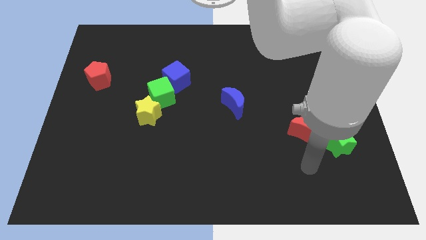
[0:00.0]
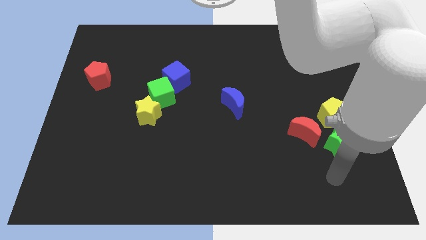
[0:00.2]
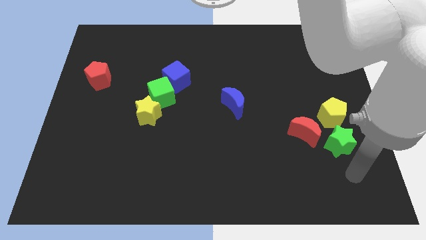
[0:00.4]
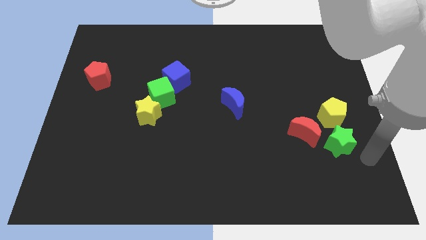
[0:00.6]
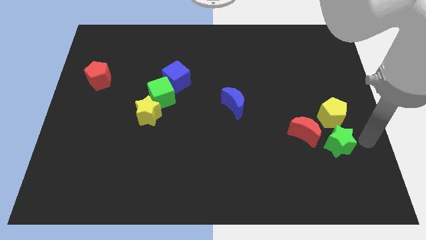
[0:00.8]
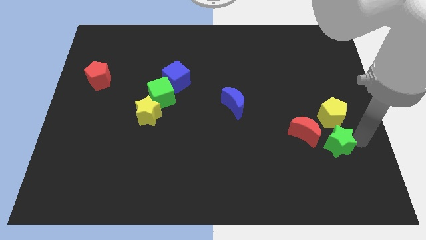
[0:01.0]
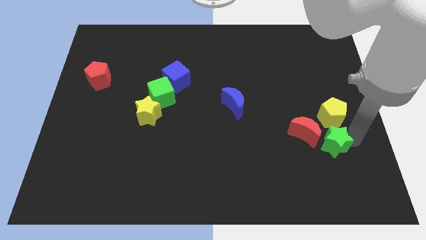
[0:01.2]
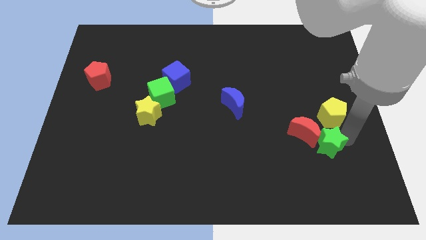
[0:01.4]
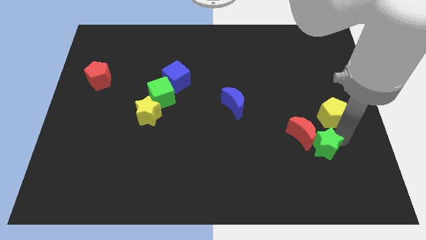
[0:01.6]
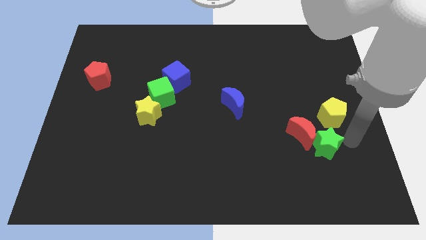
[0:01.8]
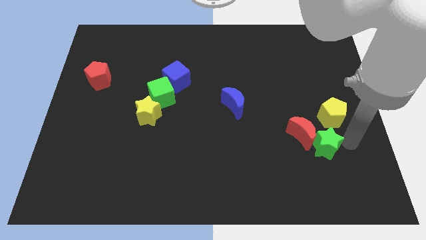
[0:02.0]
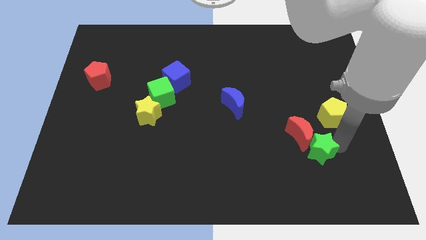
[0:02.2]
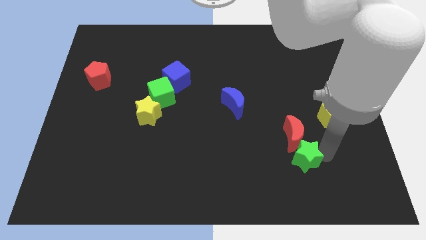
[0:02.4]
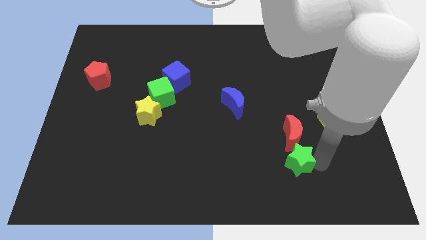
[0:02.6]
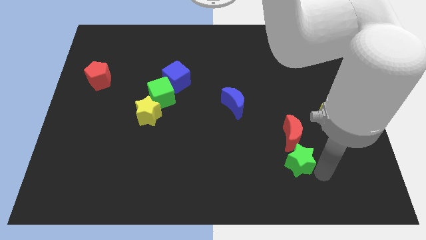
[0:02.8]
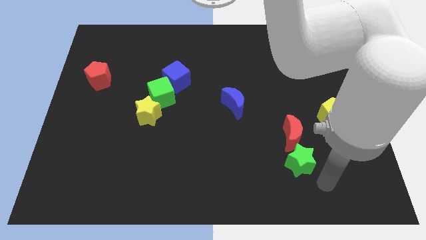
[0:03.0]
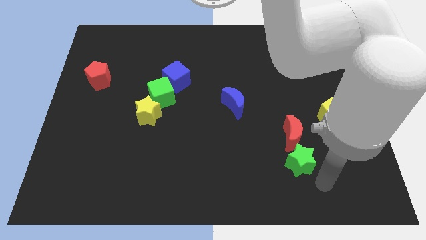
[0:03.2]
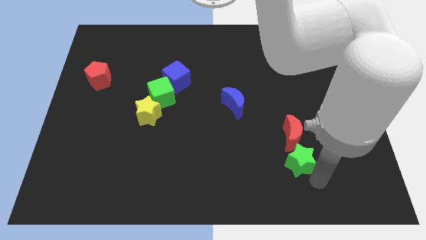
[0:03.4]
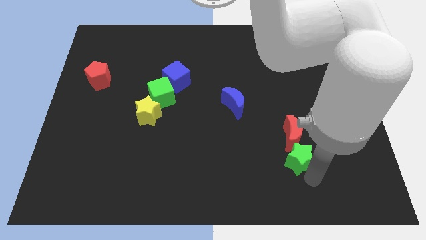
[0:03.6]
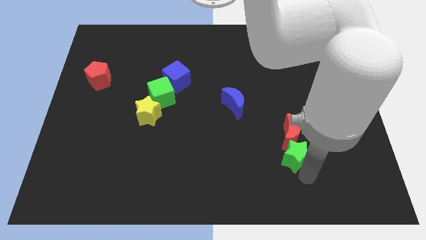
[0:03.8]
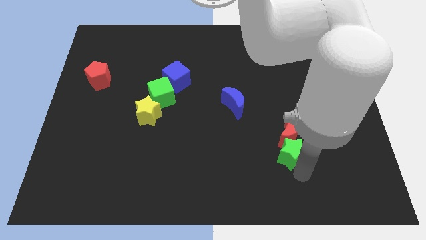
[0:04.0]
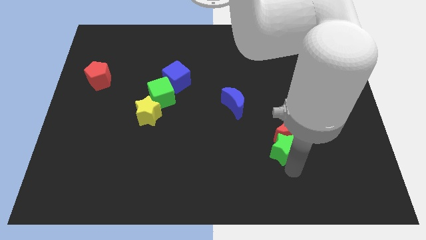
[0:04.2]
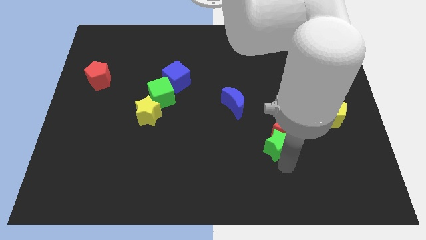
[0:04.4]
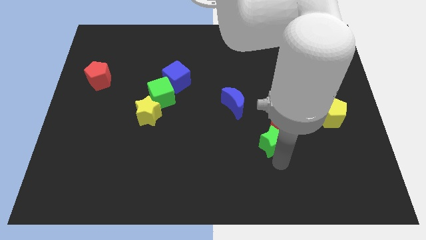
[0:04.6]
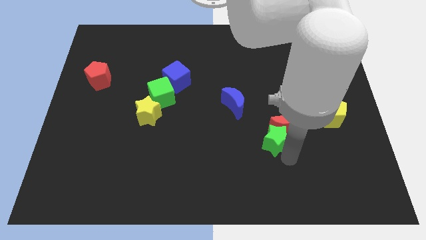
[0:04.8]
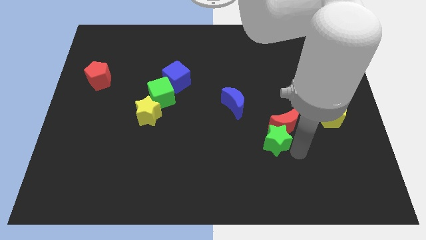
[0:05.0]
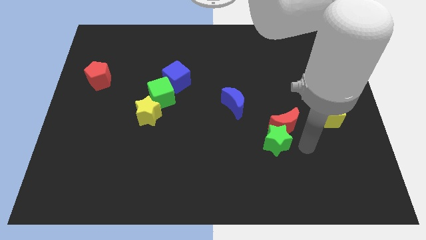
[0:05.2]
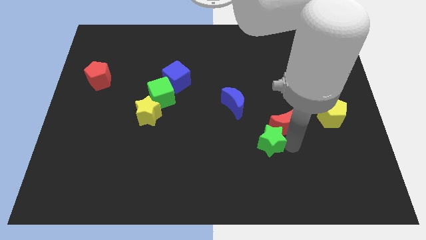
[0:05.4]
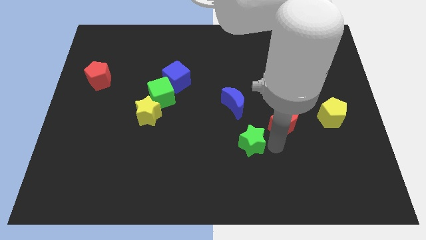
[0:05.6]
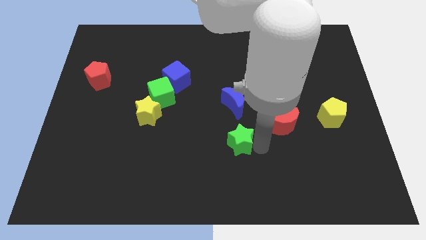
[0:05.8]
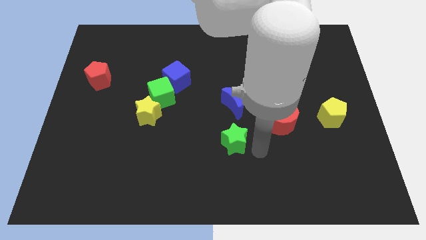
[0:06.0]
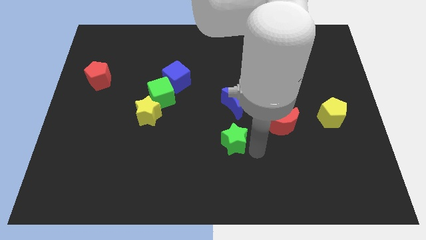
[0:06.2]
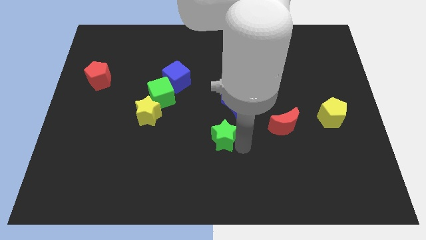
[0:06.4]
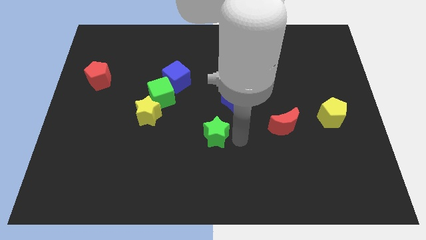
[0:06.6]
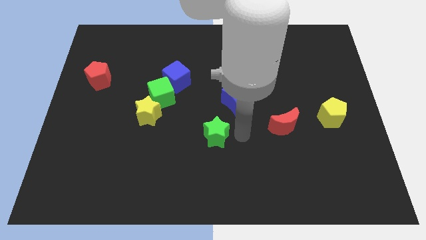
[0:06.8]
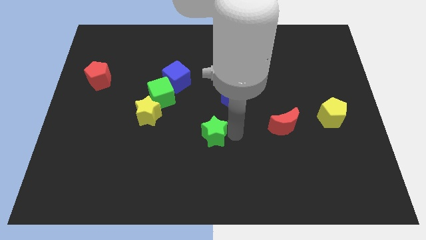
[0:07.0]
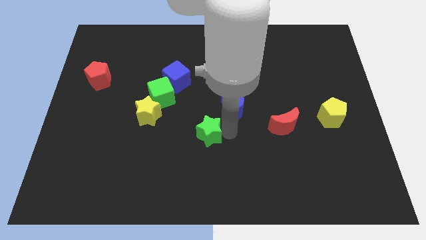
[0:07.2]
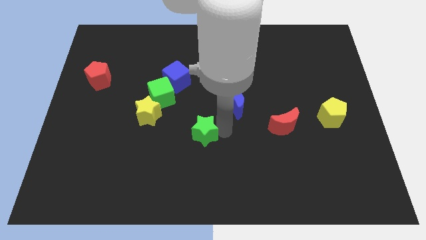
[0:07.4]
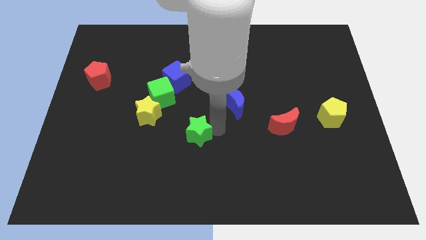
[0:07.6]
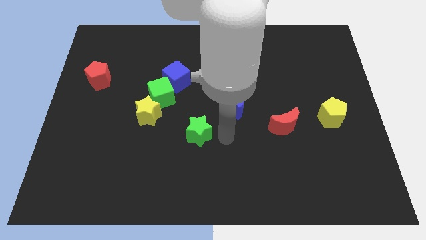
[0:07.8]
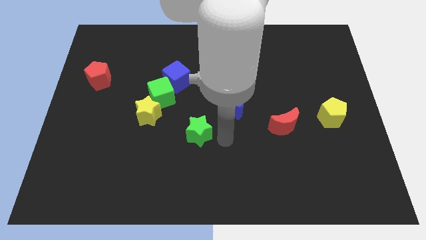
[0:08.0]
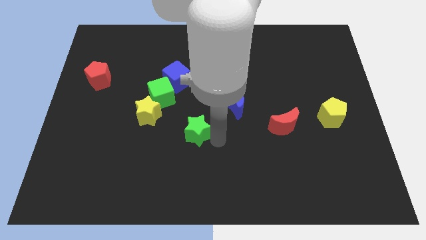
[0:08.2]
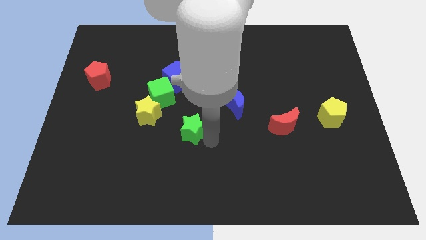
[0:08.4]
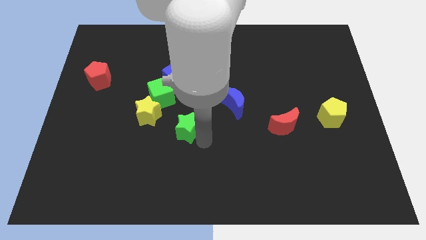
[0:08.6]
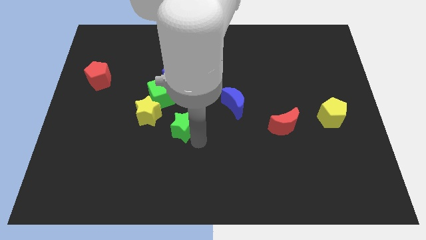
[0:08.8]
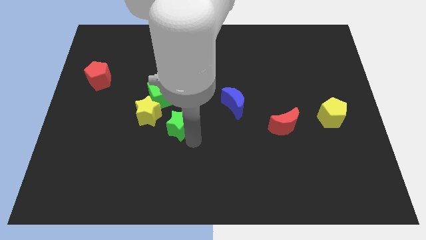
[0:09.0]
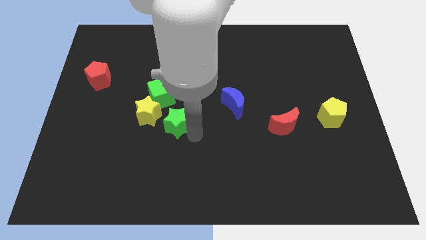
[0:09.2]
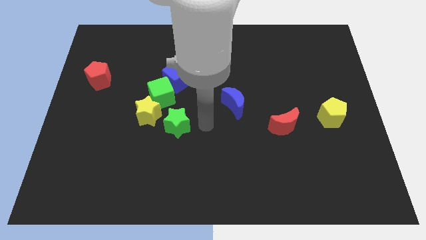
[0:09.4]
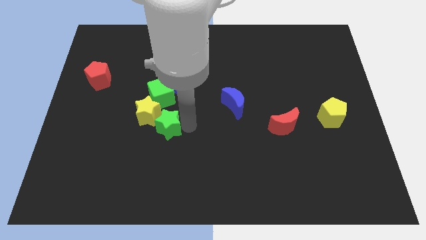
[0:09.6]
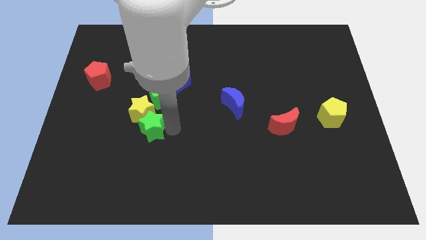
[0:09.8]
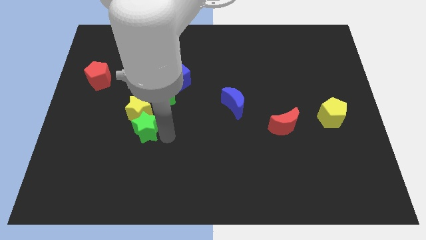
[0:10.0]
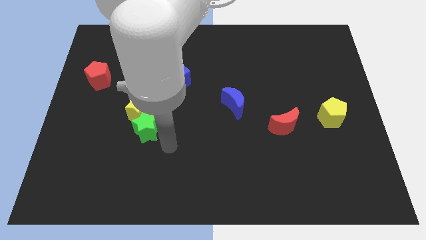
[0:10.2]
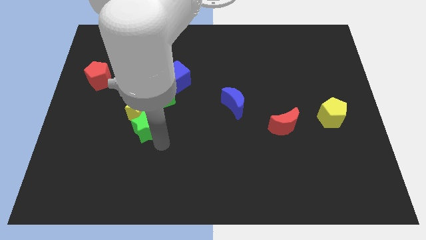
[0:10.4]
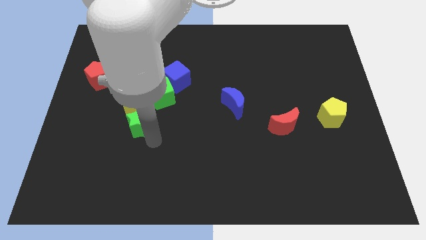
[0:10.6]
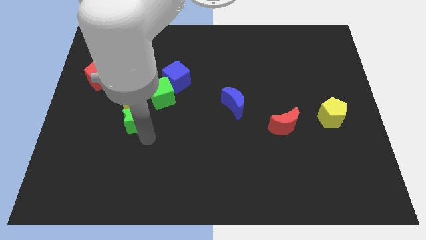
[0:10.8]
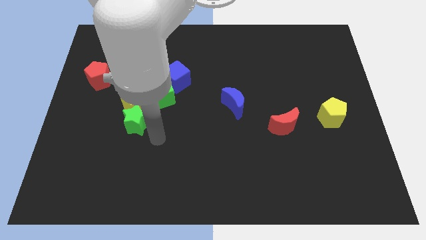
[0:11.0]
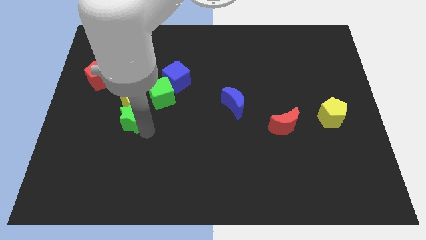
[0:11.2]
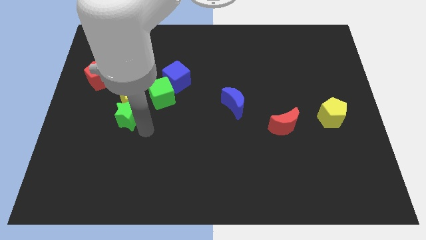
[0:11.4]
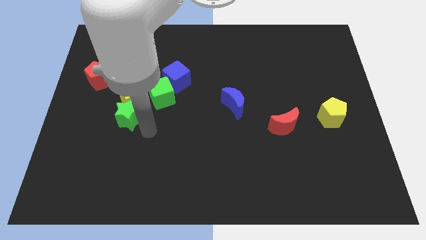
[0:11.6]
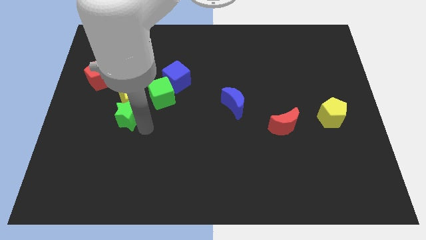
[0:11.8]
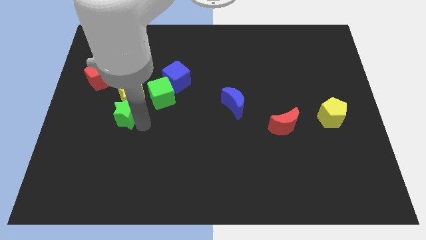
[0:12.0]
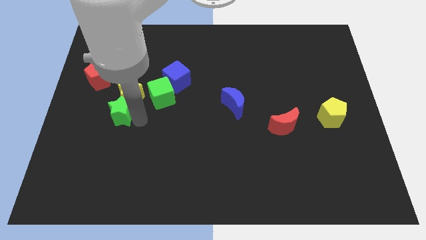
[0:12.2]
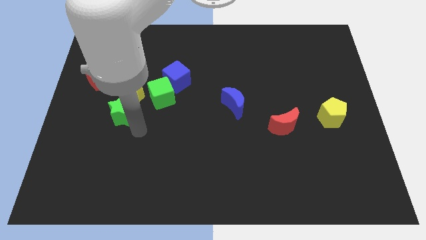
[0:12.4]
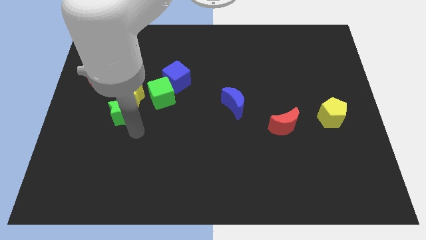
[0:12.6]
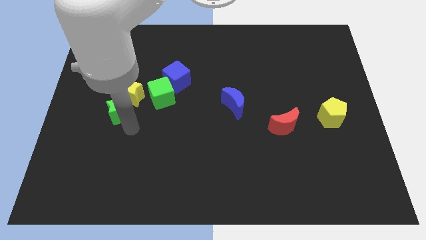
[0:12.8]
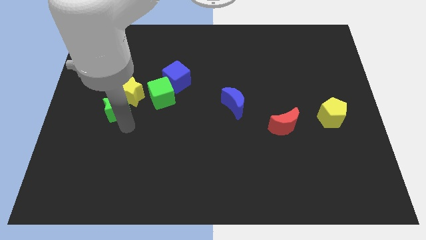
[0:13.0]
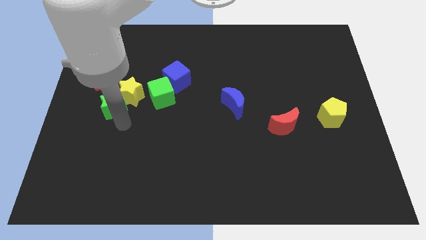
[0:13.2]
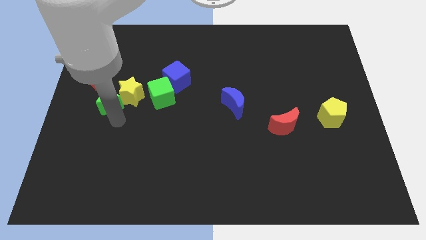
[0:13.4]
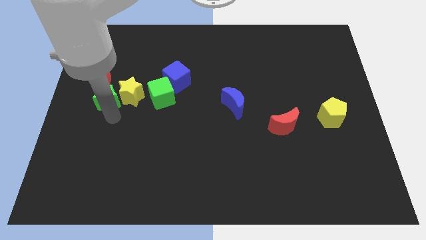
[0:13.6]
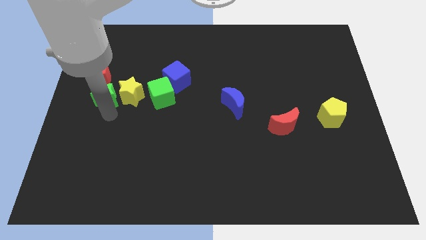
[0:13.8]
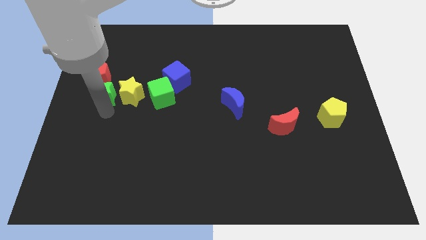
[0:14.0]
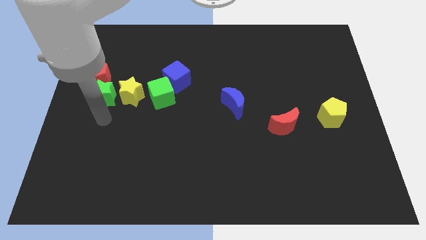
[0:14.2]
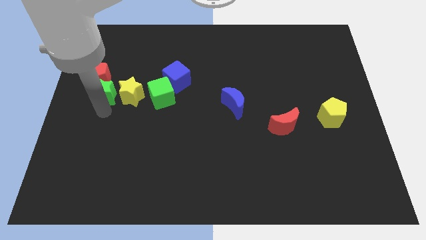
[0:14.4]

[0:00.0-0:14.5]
push the green star close to the red pentagon
